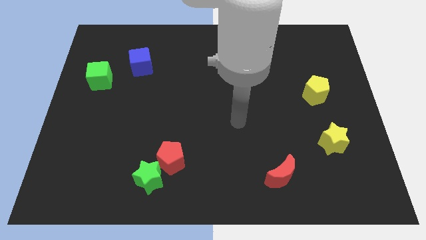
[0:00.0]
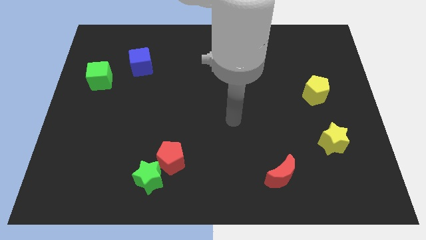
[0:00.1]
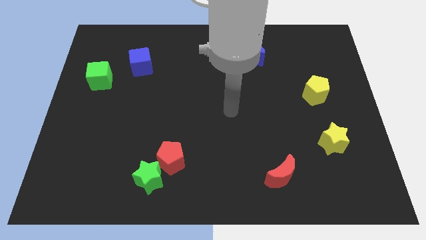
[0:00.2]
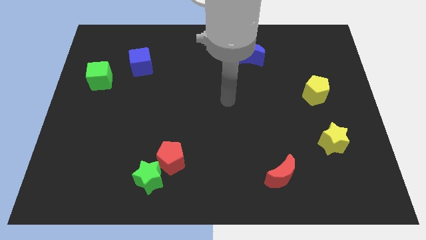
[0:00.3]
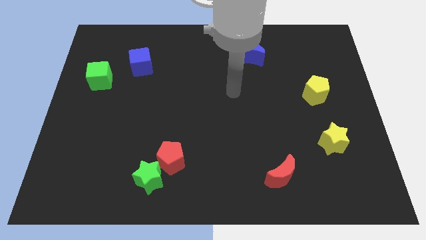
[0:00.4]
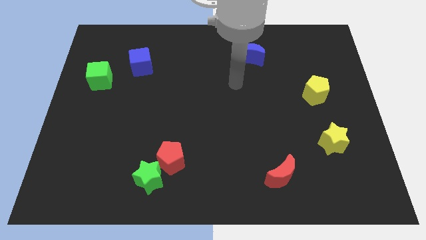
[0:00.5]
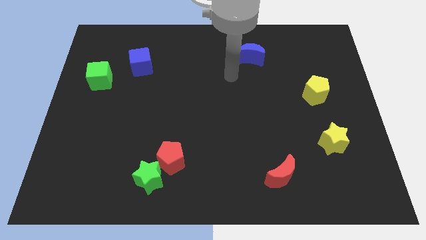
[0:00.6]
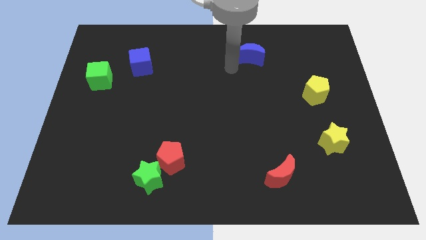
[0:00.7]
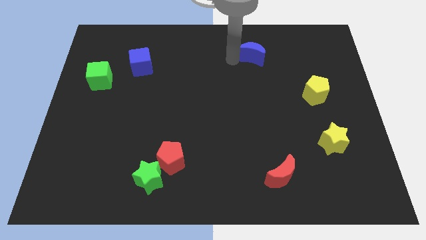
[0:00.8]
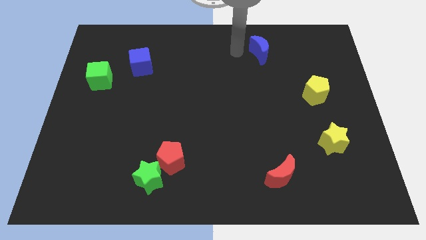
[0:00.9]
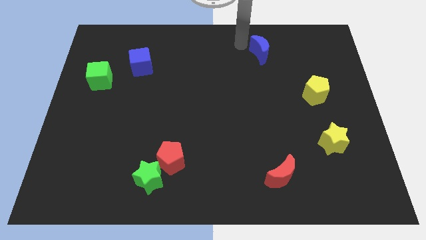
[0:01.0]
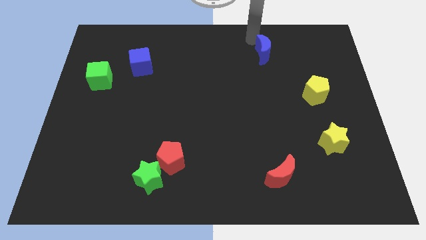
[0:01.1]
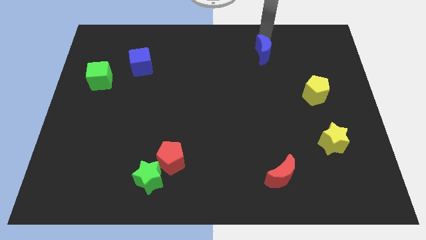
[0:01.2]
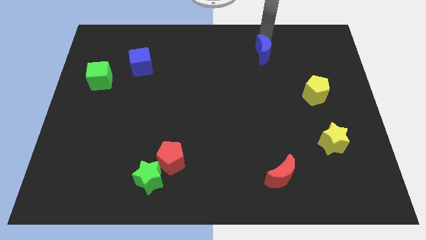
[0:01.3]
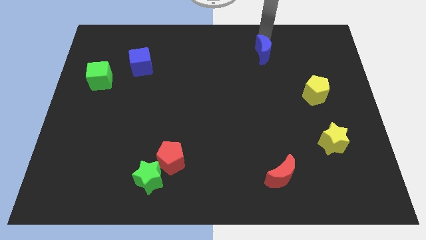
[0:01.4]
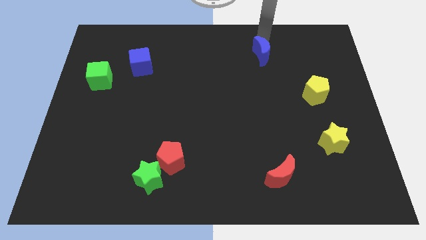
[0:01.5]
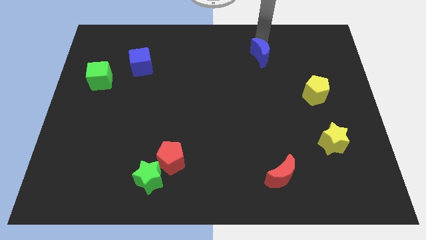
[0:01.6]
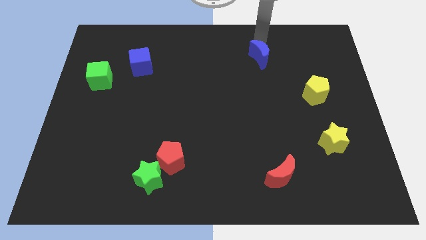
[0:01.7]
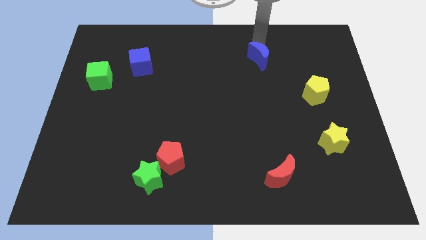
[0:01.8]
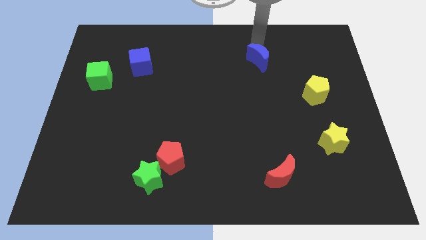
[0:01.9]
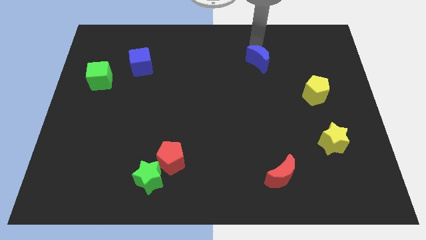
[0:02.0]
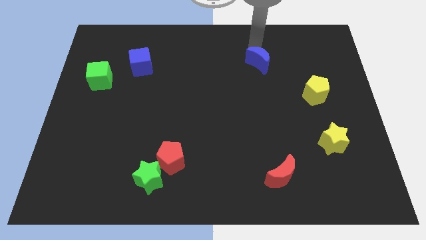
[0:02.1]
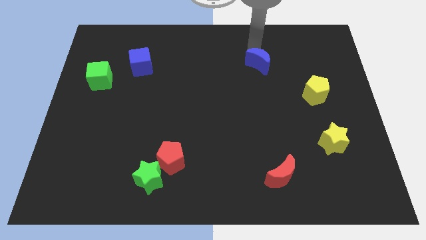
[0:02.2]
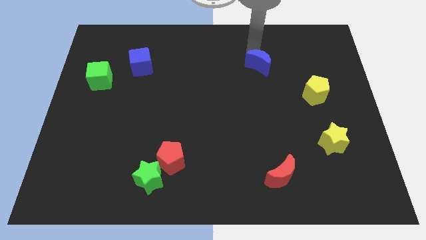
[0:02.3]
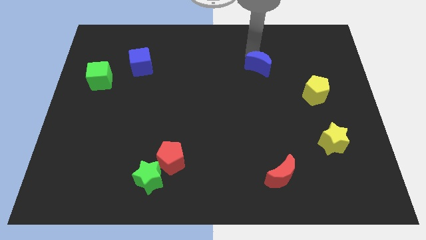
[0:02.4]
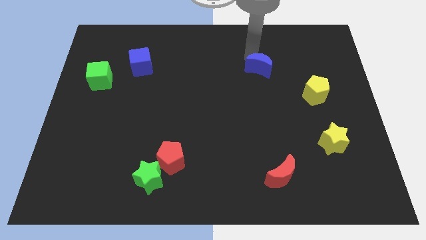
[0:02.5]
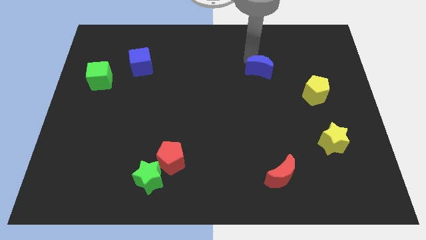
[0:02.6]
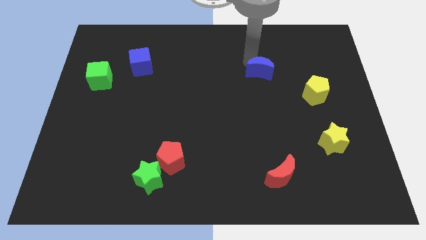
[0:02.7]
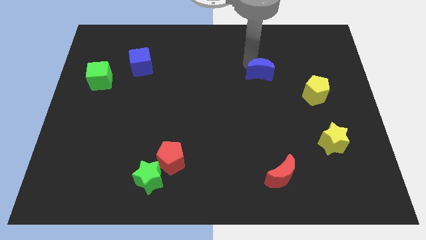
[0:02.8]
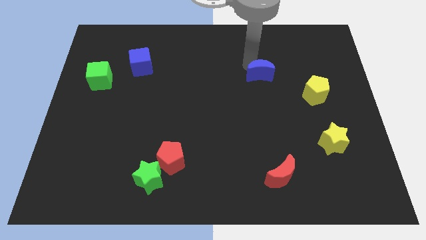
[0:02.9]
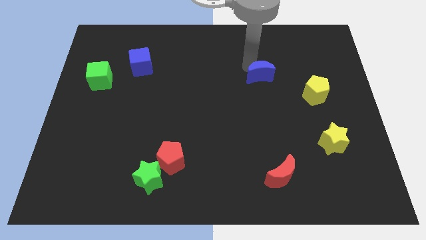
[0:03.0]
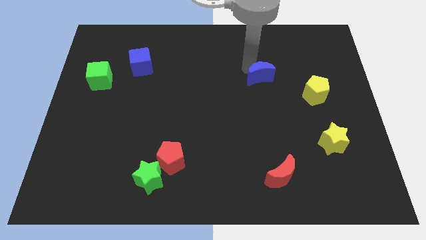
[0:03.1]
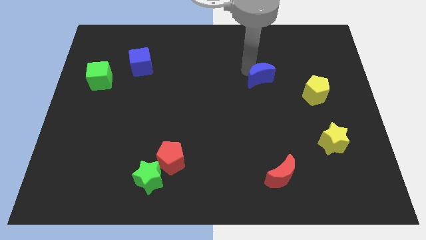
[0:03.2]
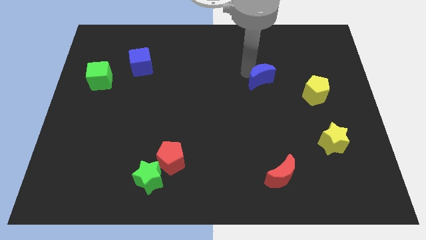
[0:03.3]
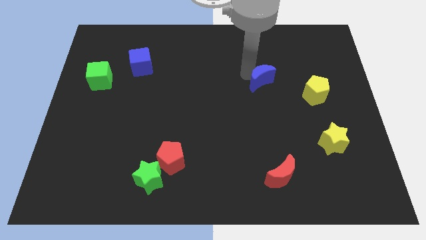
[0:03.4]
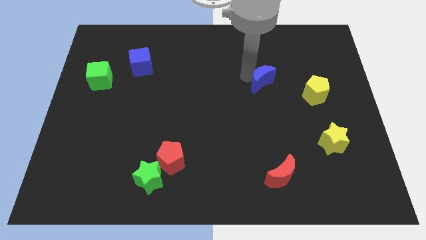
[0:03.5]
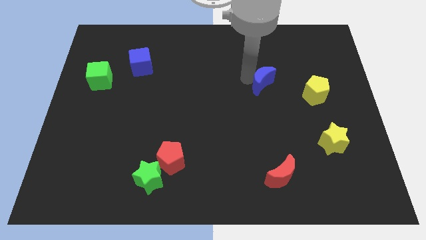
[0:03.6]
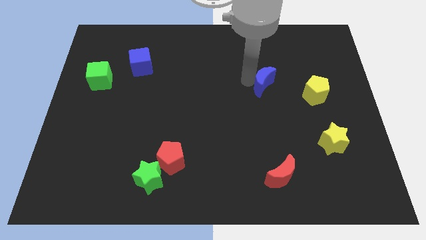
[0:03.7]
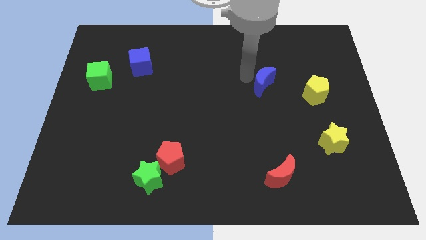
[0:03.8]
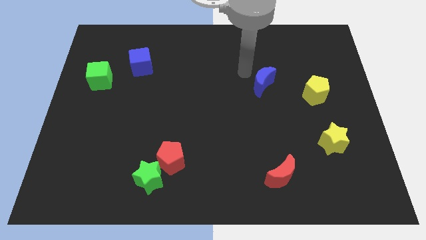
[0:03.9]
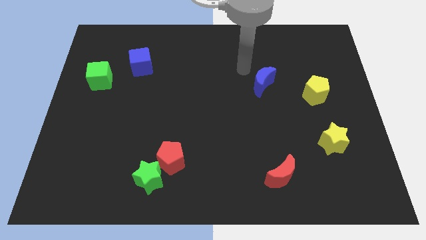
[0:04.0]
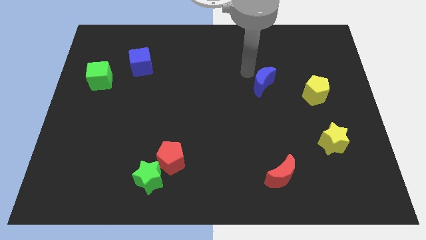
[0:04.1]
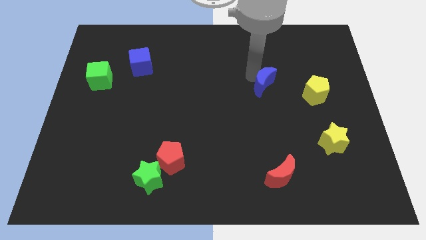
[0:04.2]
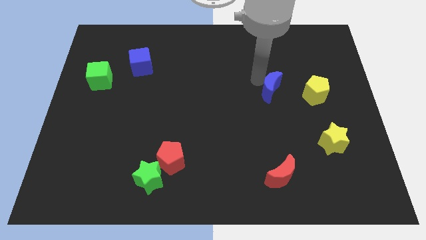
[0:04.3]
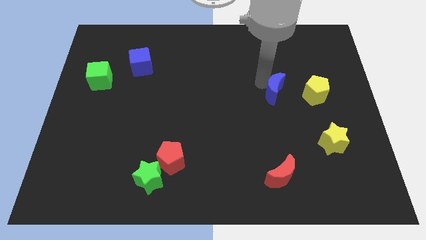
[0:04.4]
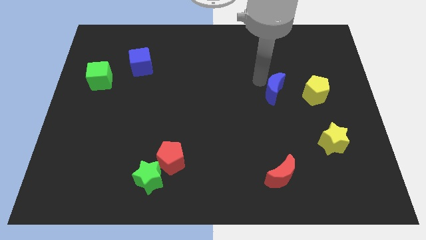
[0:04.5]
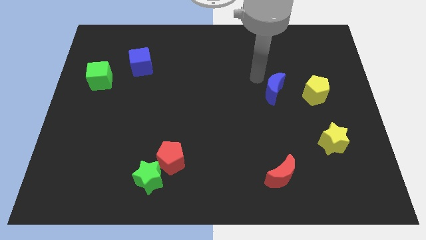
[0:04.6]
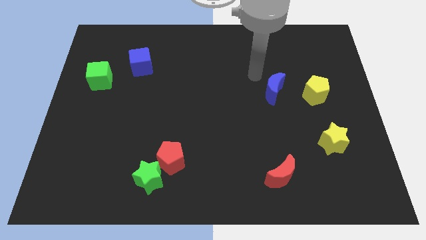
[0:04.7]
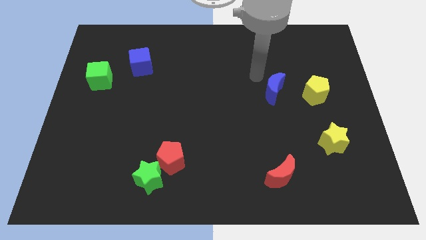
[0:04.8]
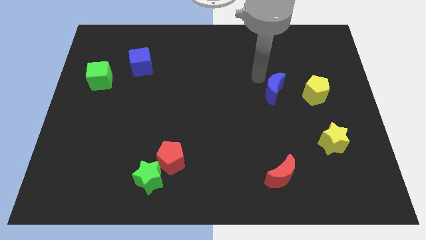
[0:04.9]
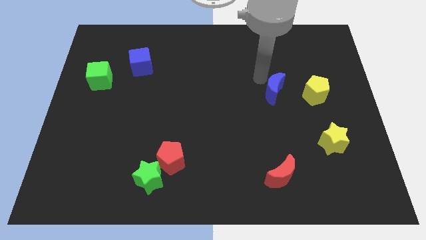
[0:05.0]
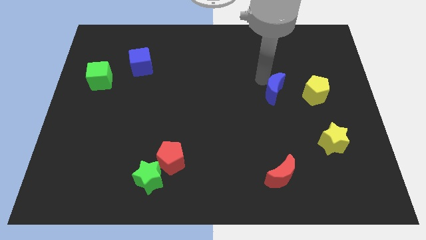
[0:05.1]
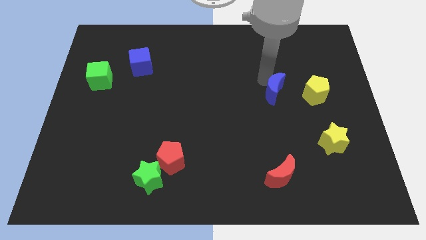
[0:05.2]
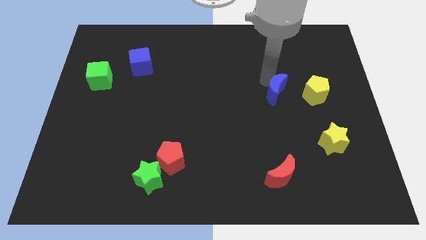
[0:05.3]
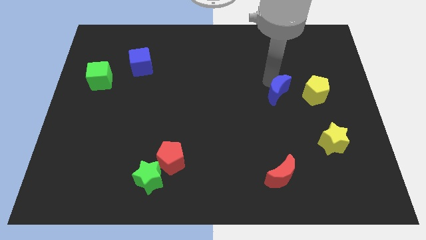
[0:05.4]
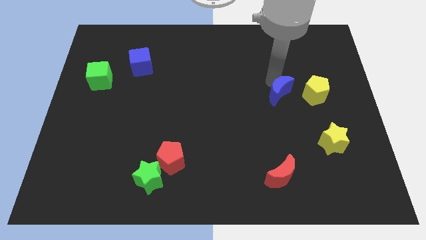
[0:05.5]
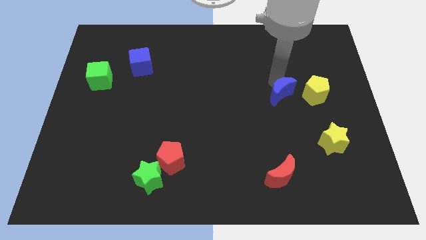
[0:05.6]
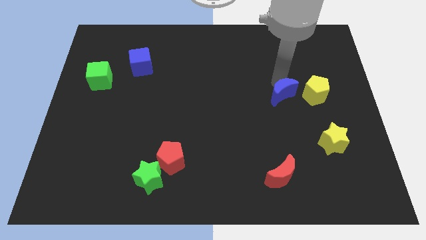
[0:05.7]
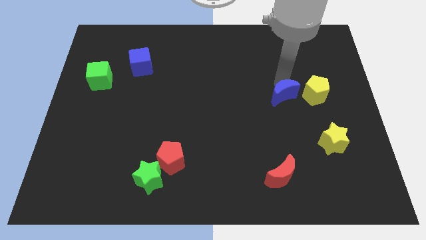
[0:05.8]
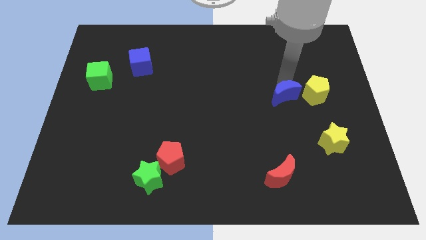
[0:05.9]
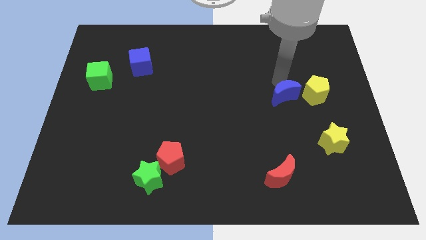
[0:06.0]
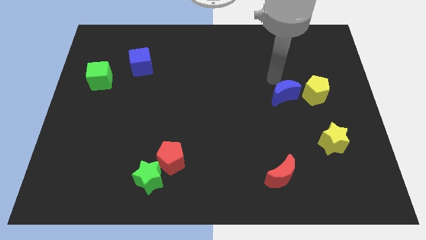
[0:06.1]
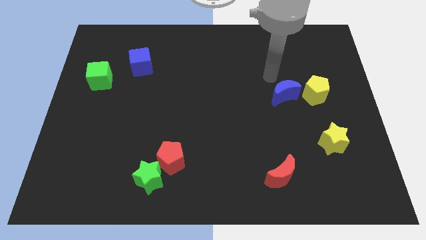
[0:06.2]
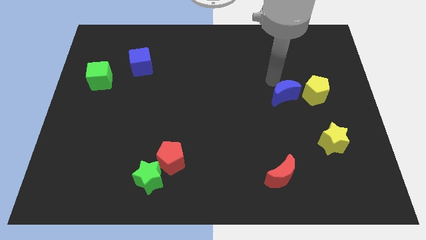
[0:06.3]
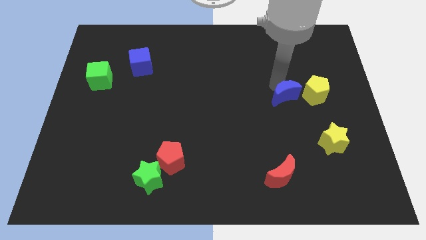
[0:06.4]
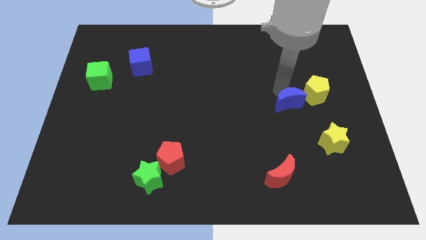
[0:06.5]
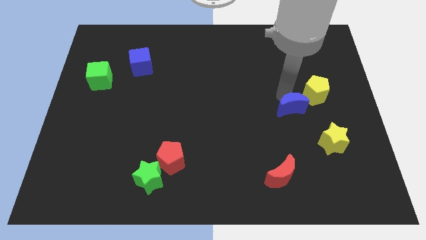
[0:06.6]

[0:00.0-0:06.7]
move the blue moon diagonally up and to the left of the yellow star

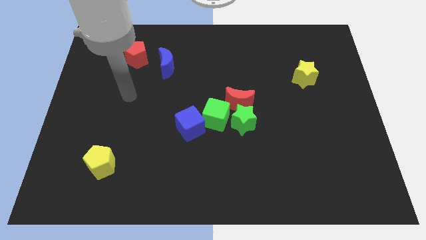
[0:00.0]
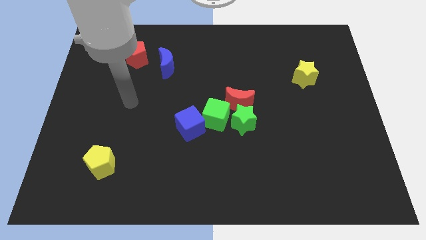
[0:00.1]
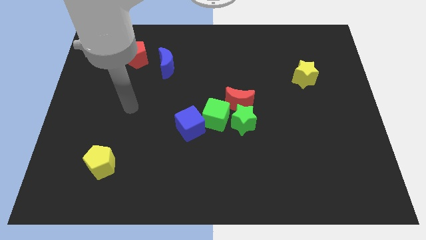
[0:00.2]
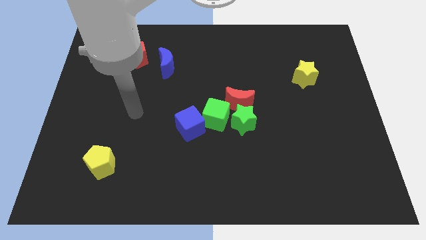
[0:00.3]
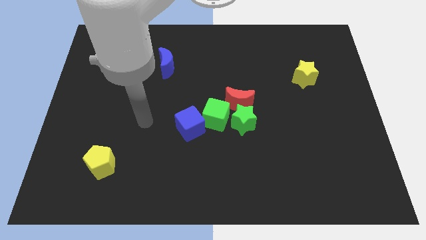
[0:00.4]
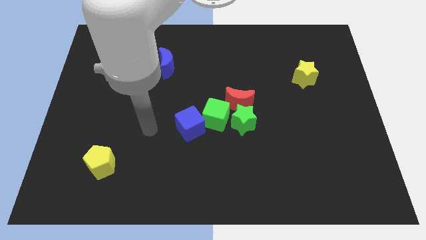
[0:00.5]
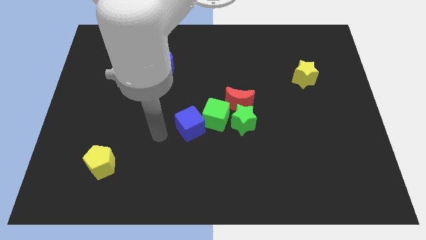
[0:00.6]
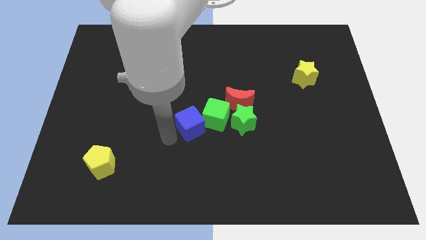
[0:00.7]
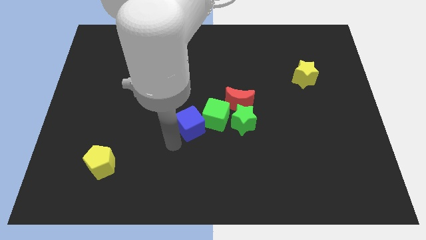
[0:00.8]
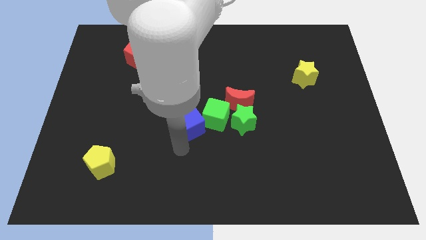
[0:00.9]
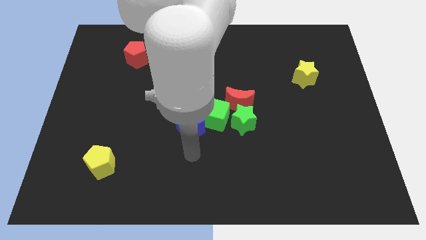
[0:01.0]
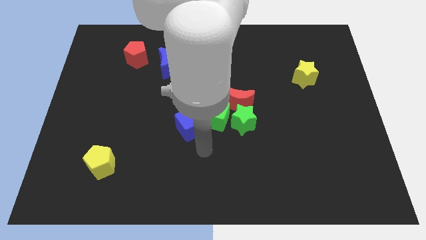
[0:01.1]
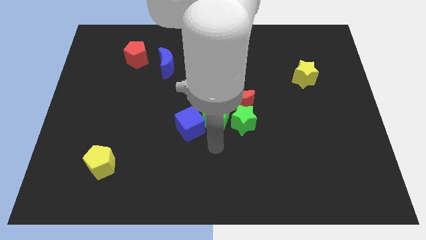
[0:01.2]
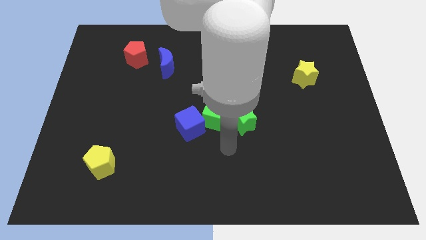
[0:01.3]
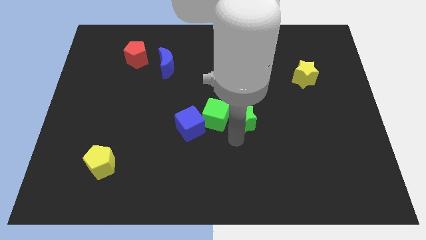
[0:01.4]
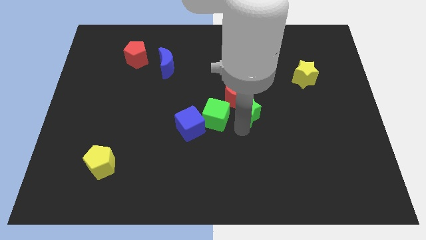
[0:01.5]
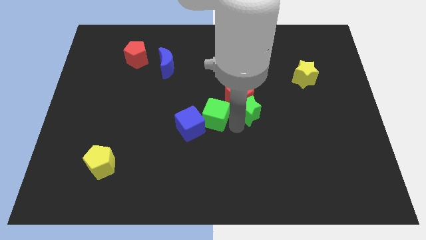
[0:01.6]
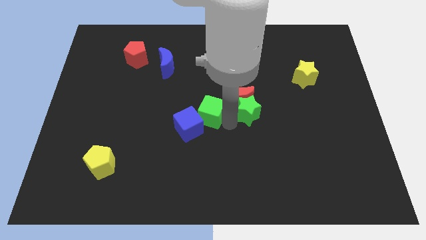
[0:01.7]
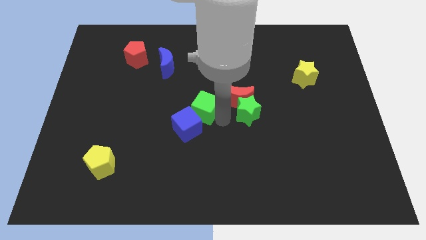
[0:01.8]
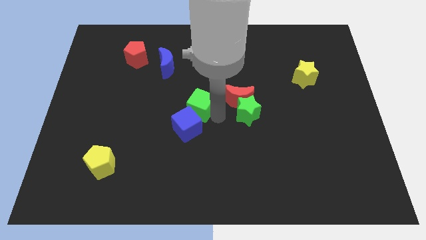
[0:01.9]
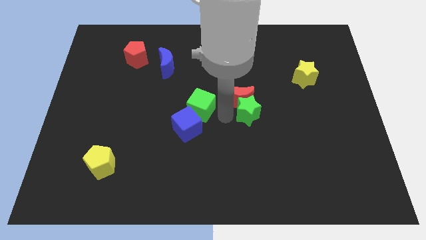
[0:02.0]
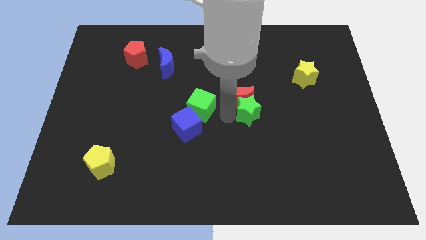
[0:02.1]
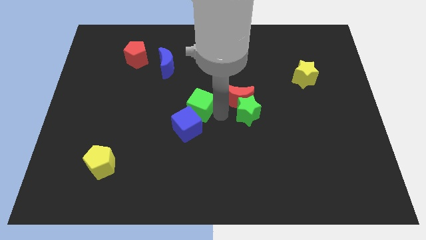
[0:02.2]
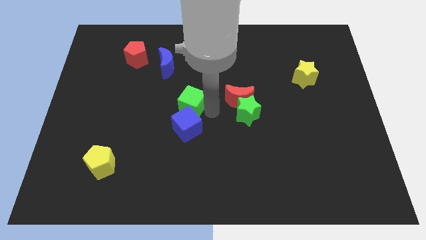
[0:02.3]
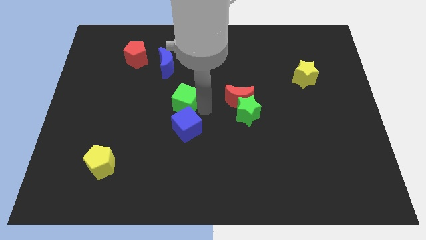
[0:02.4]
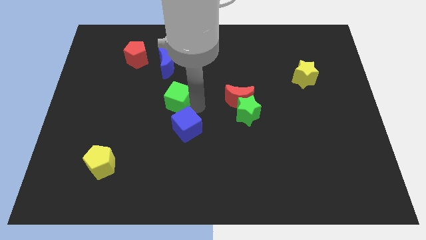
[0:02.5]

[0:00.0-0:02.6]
push the green cube to the bottom of the blue moon
